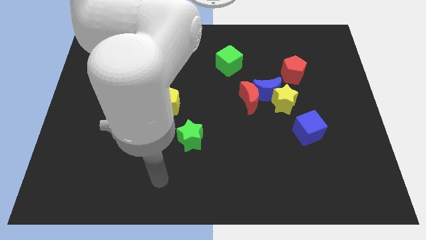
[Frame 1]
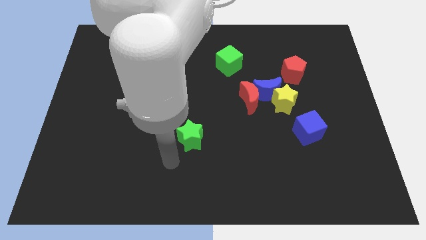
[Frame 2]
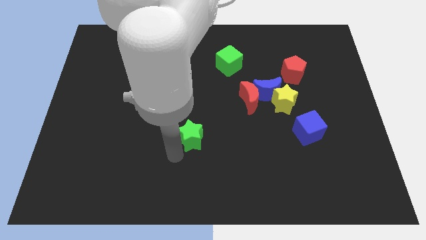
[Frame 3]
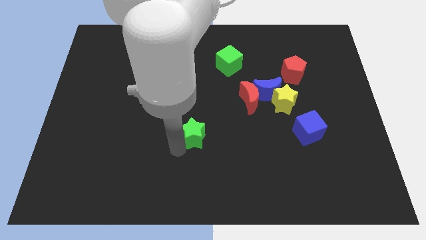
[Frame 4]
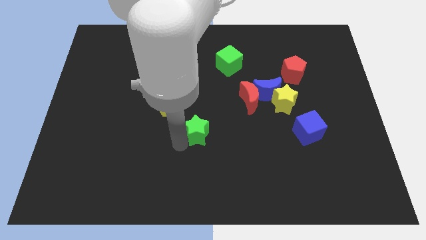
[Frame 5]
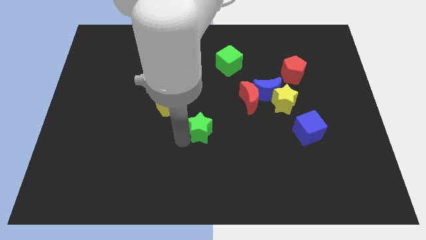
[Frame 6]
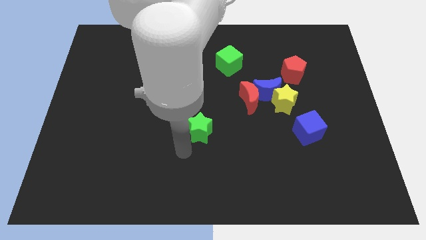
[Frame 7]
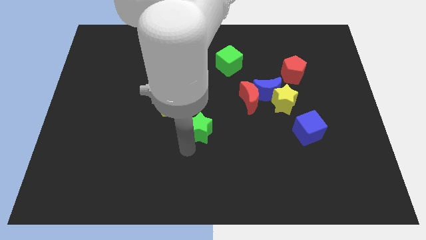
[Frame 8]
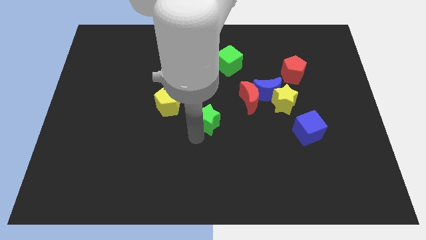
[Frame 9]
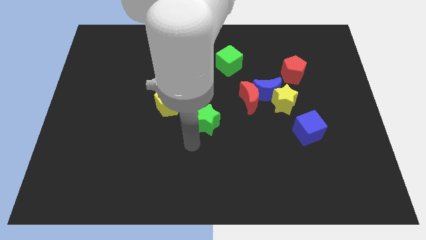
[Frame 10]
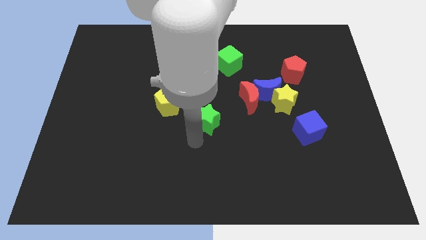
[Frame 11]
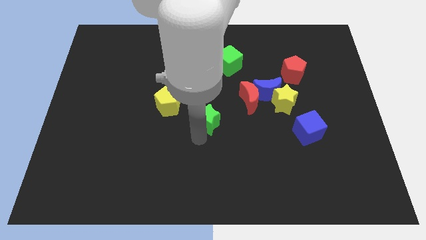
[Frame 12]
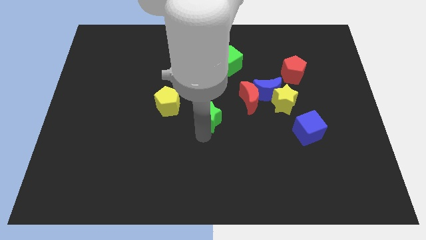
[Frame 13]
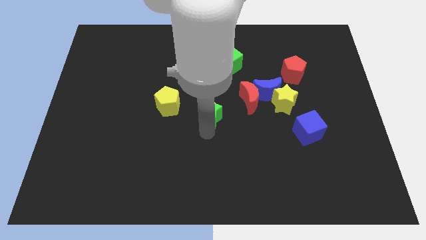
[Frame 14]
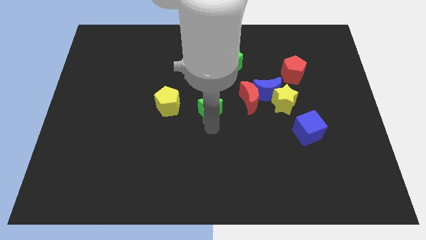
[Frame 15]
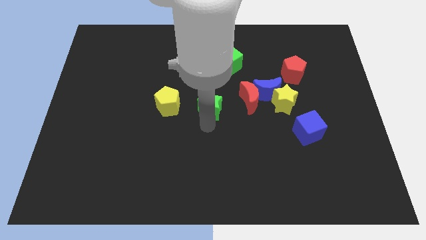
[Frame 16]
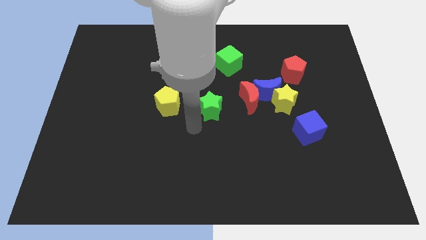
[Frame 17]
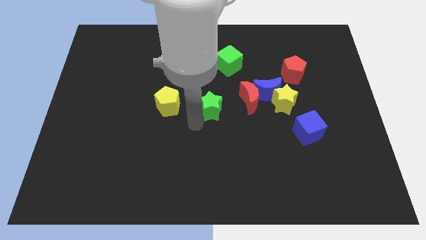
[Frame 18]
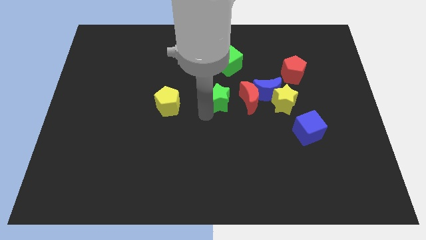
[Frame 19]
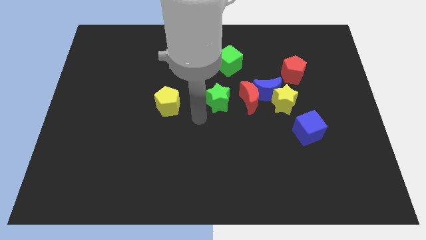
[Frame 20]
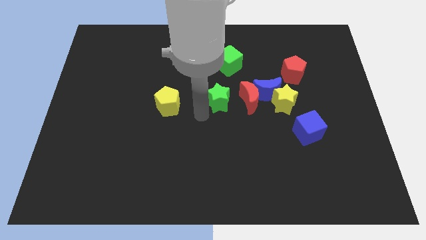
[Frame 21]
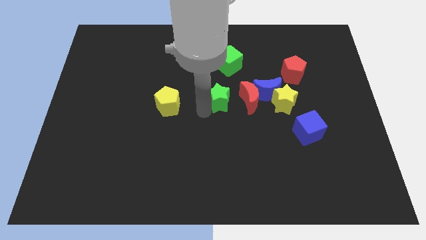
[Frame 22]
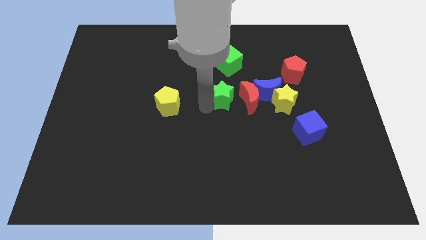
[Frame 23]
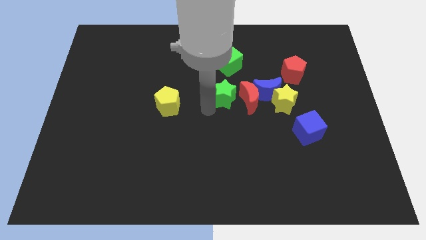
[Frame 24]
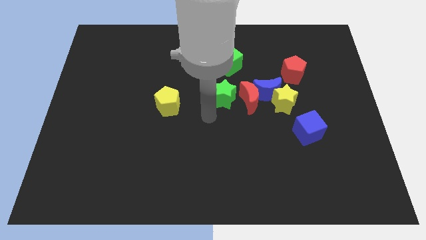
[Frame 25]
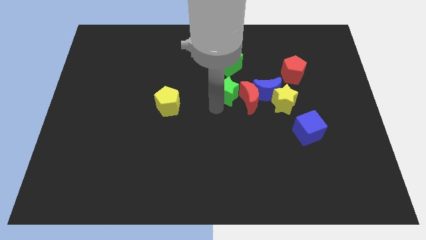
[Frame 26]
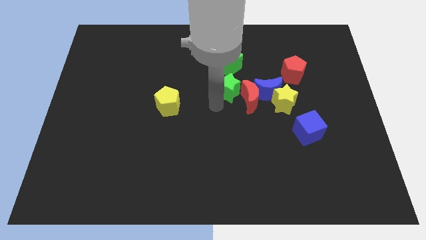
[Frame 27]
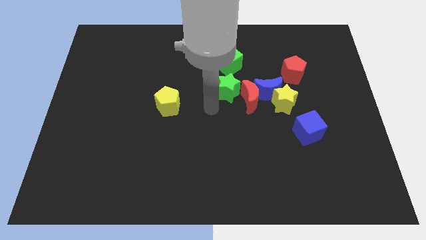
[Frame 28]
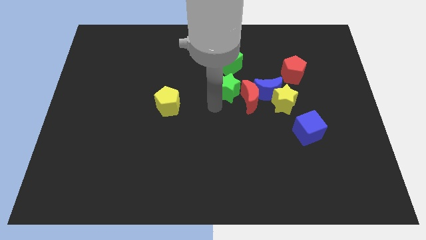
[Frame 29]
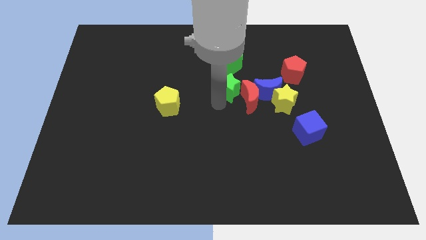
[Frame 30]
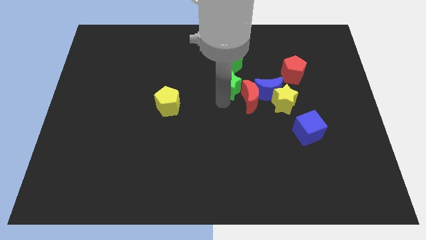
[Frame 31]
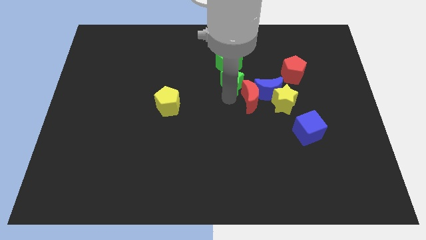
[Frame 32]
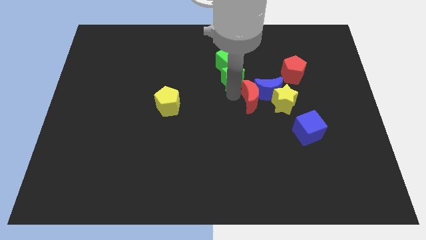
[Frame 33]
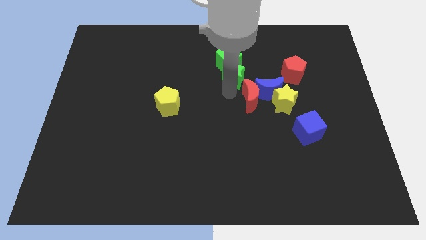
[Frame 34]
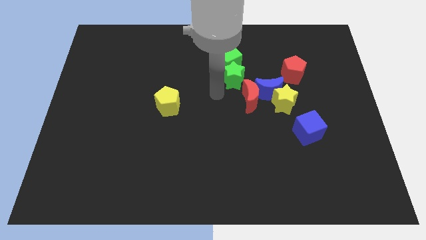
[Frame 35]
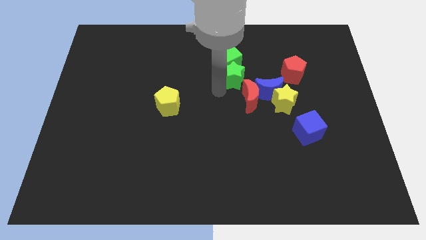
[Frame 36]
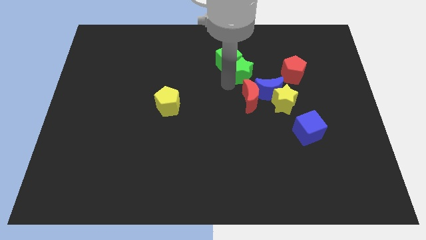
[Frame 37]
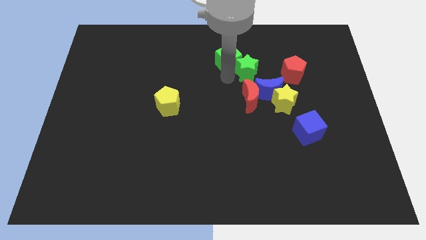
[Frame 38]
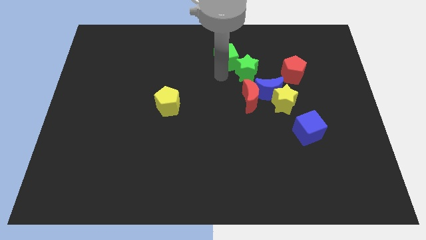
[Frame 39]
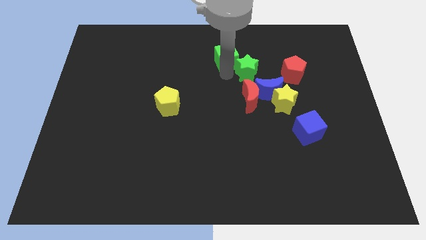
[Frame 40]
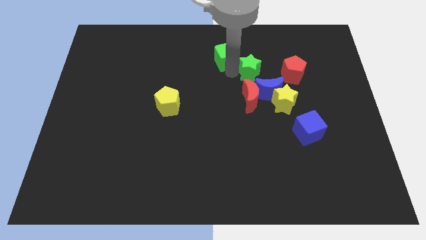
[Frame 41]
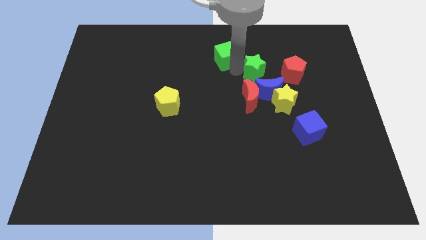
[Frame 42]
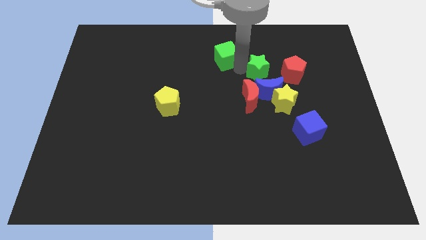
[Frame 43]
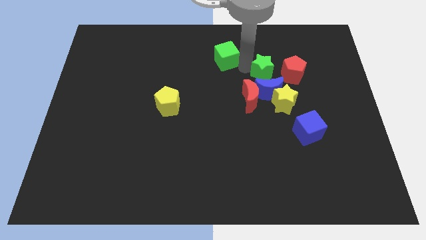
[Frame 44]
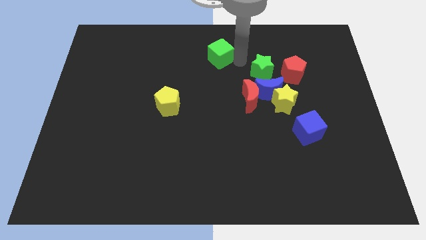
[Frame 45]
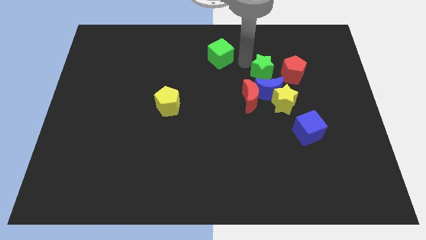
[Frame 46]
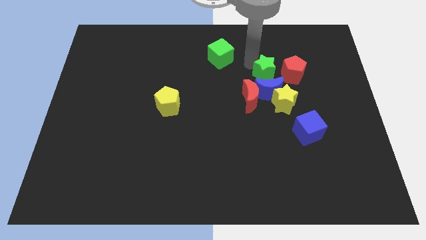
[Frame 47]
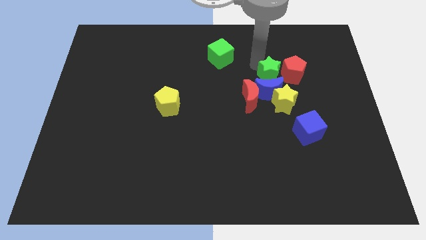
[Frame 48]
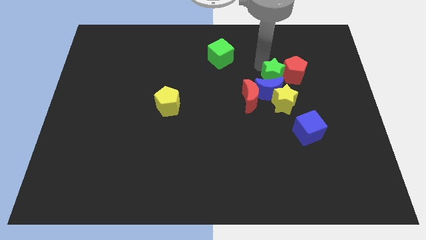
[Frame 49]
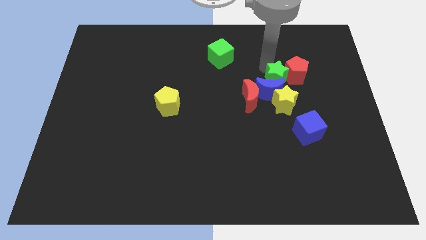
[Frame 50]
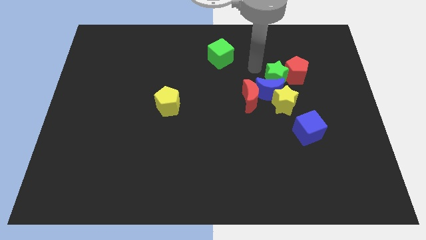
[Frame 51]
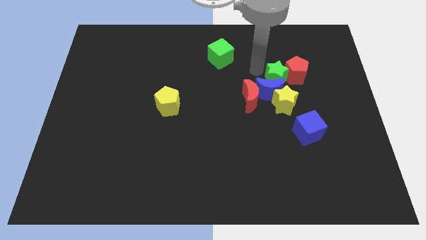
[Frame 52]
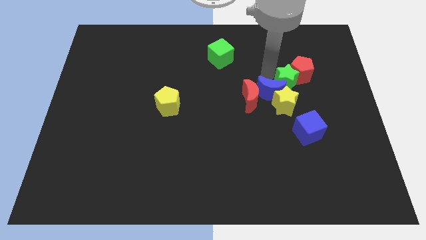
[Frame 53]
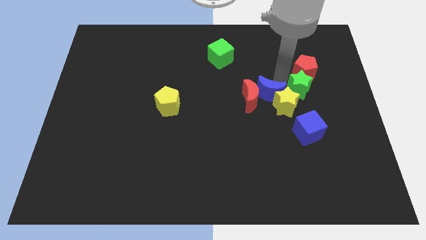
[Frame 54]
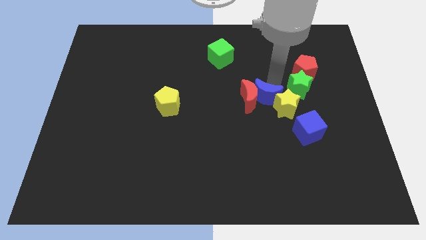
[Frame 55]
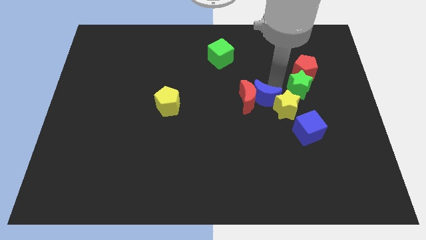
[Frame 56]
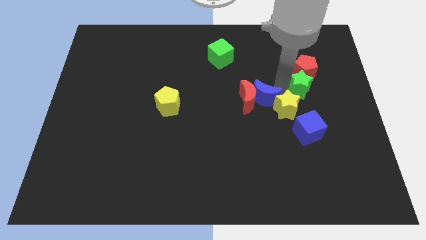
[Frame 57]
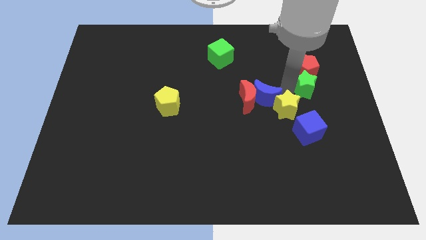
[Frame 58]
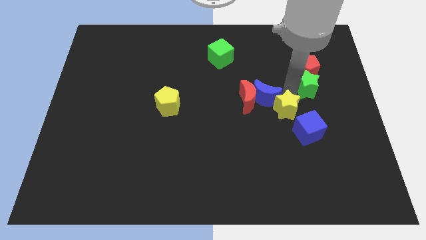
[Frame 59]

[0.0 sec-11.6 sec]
slide the green star diagonally down and to the right of the red pentagon

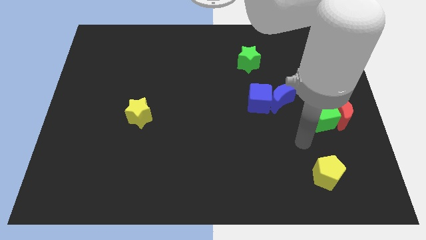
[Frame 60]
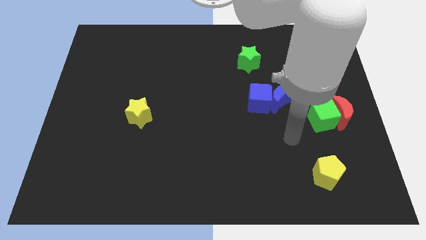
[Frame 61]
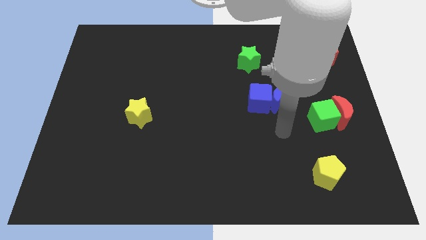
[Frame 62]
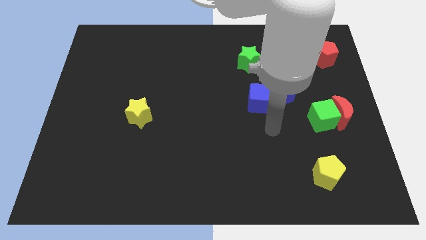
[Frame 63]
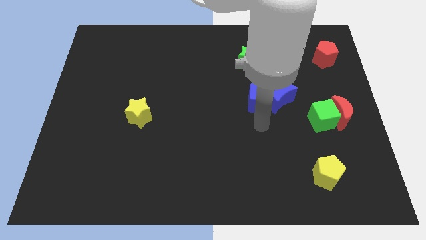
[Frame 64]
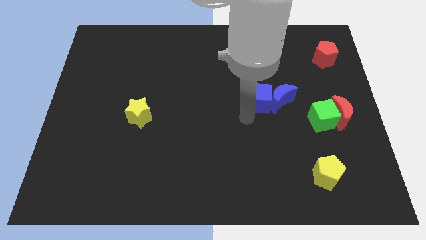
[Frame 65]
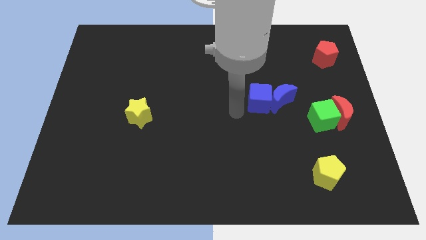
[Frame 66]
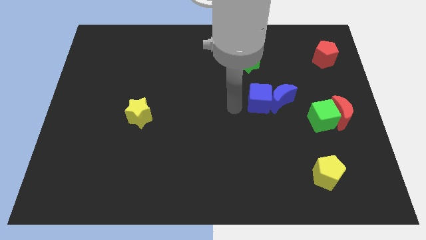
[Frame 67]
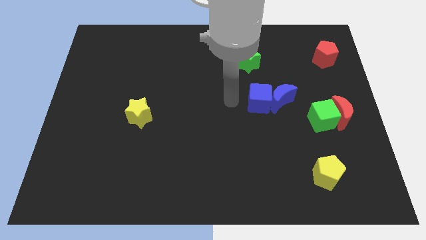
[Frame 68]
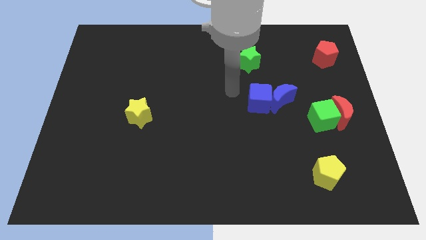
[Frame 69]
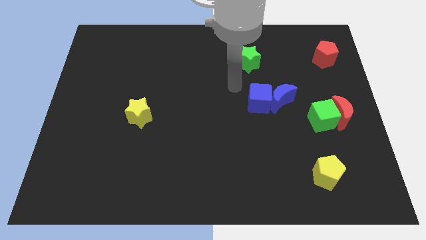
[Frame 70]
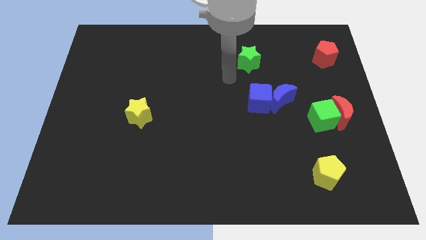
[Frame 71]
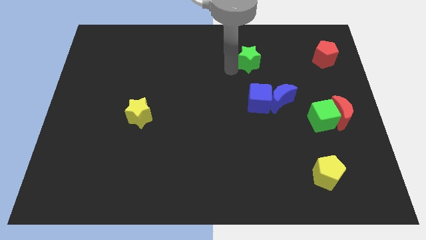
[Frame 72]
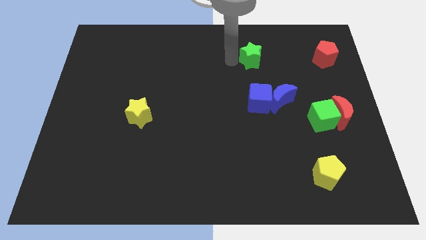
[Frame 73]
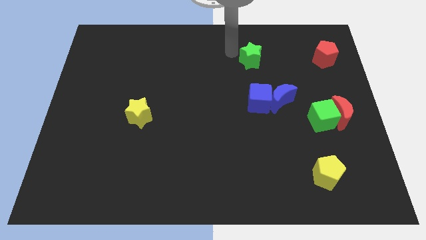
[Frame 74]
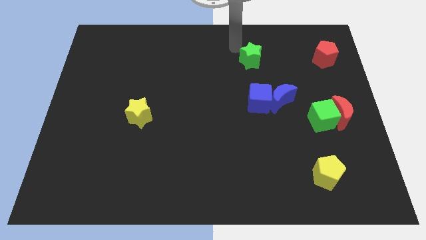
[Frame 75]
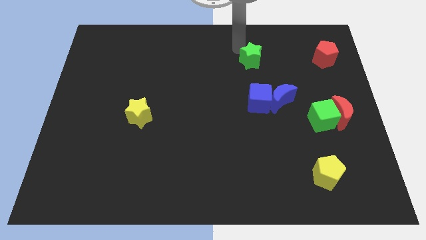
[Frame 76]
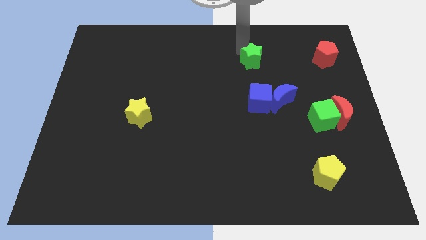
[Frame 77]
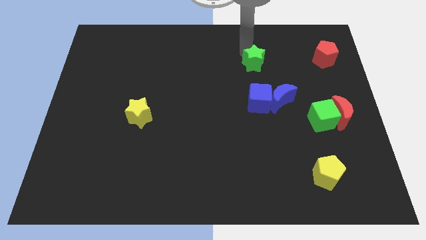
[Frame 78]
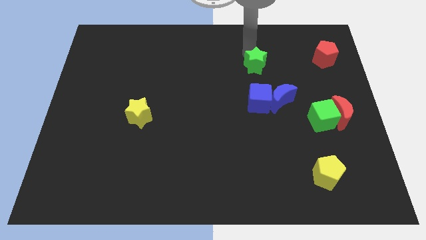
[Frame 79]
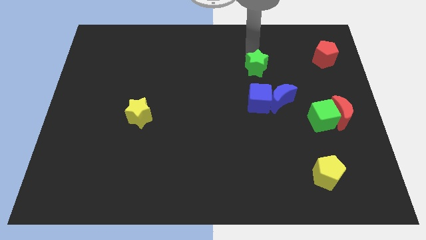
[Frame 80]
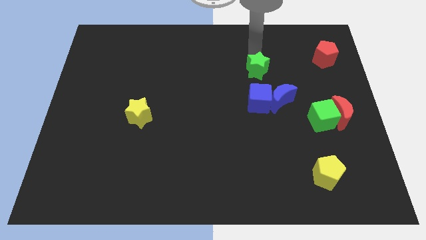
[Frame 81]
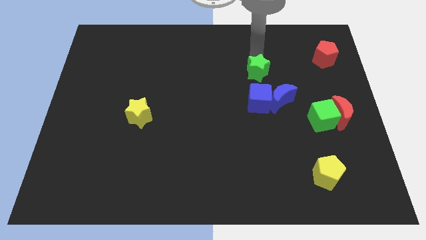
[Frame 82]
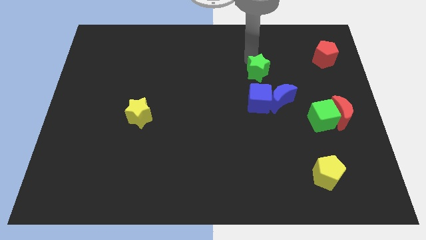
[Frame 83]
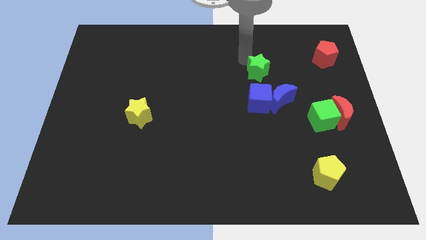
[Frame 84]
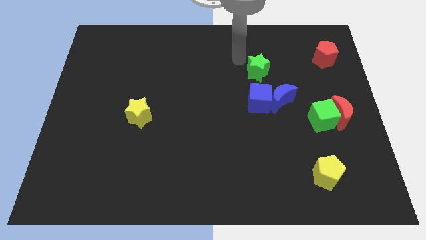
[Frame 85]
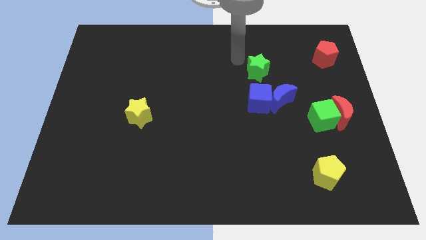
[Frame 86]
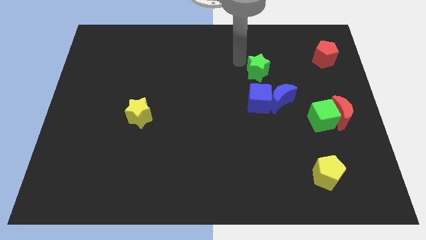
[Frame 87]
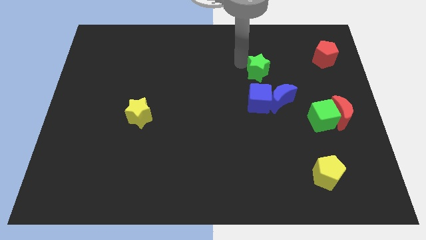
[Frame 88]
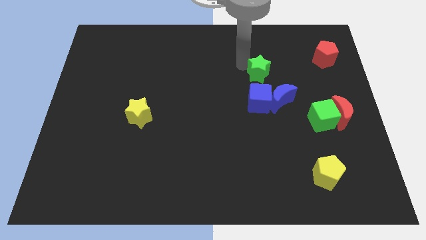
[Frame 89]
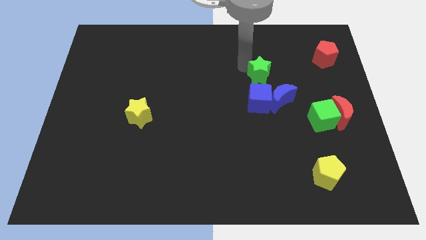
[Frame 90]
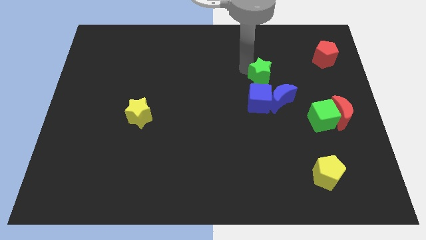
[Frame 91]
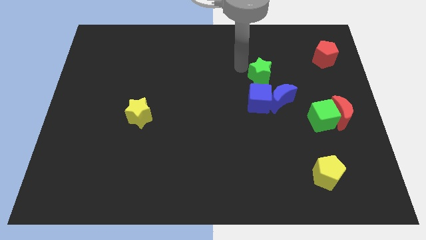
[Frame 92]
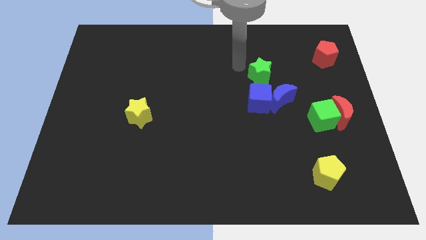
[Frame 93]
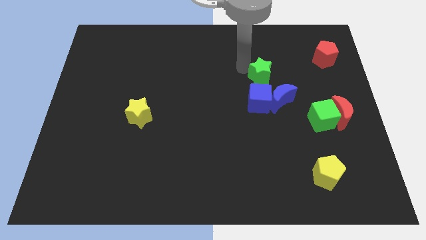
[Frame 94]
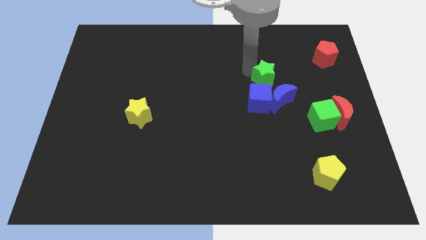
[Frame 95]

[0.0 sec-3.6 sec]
put the green star diagonally up and to the right of the blue cube
